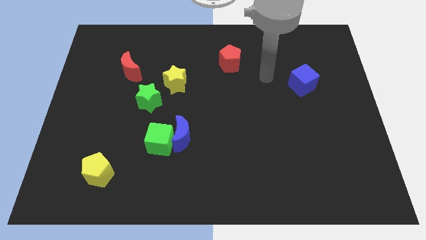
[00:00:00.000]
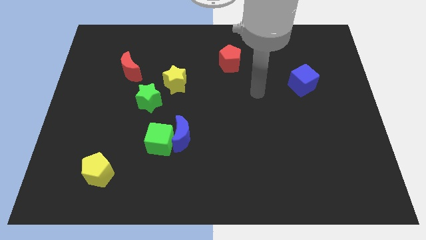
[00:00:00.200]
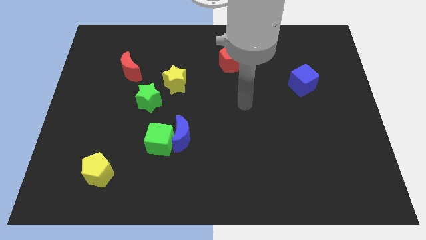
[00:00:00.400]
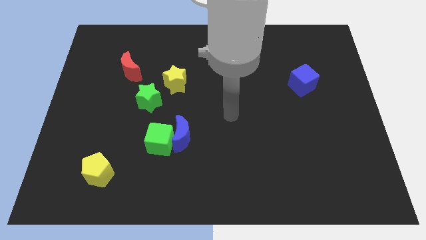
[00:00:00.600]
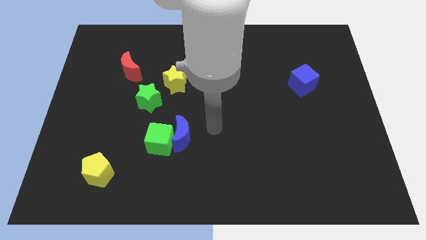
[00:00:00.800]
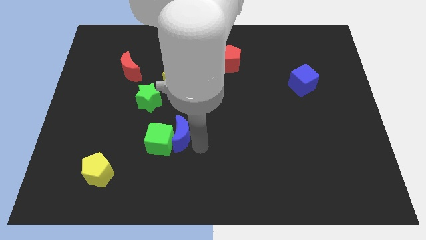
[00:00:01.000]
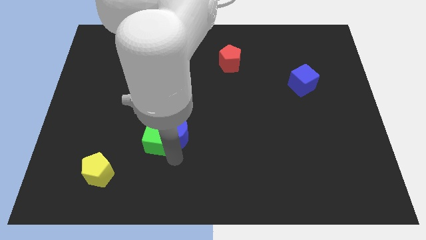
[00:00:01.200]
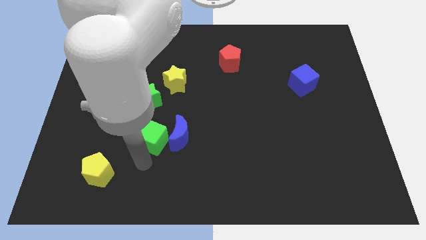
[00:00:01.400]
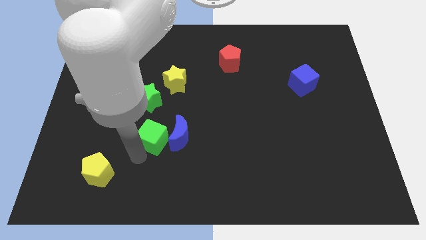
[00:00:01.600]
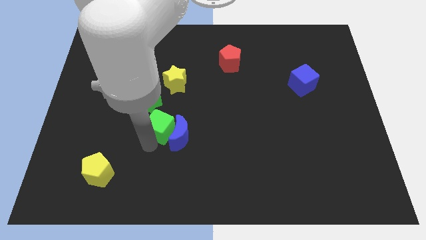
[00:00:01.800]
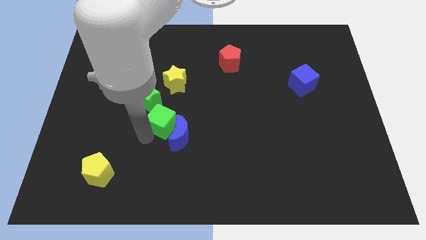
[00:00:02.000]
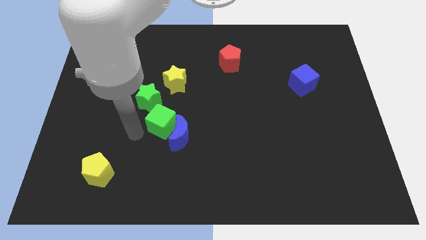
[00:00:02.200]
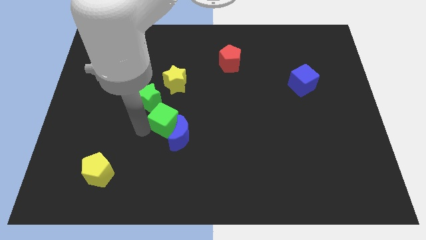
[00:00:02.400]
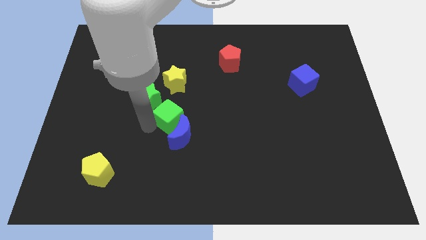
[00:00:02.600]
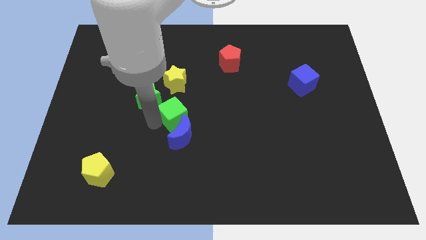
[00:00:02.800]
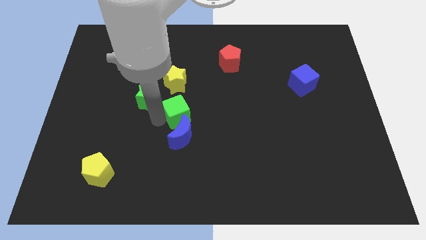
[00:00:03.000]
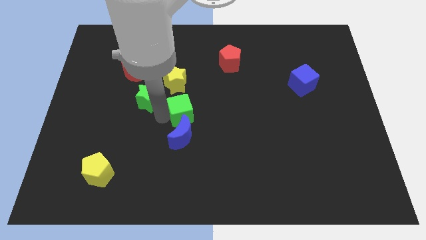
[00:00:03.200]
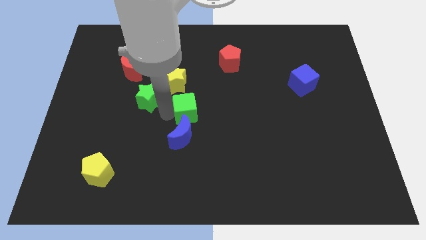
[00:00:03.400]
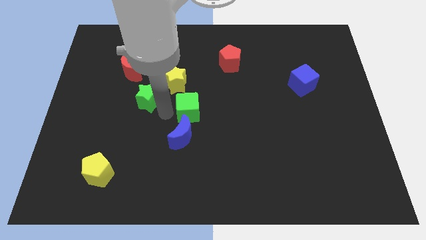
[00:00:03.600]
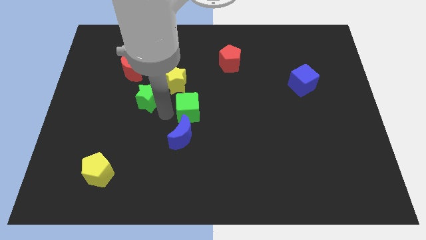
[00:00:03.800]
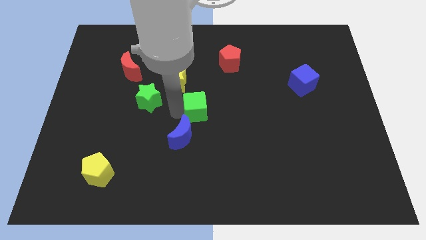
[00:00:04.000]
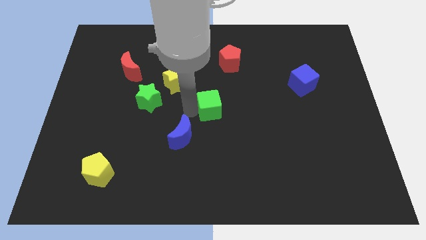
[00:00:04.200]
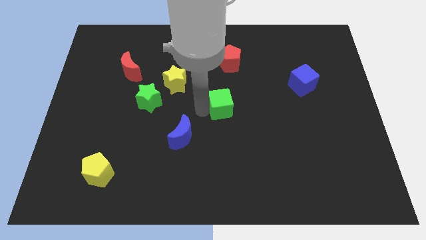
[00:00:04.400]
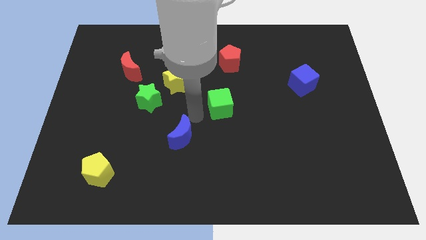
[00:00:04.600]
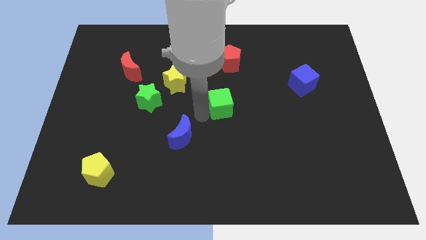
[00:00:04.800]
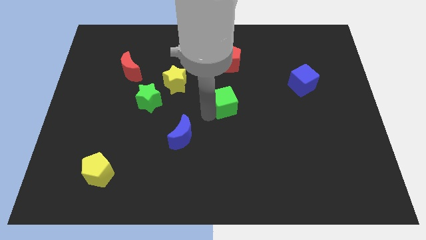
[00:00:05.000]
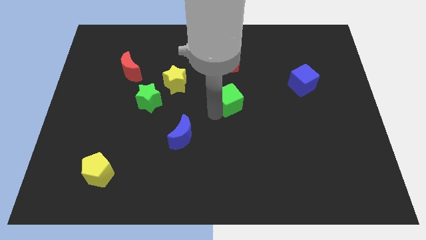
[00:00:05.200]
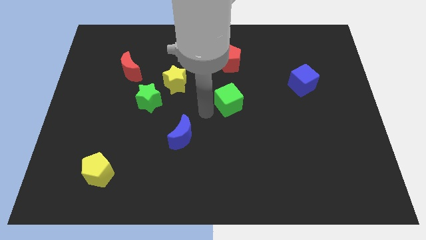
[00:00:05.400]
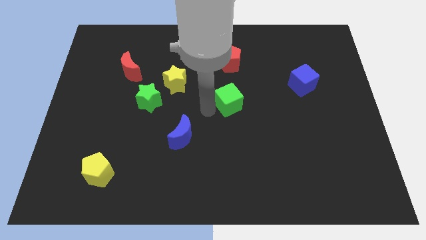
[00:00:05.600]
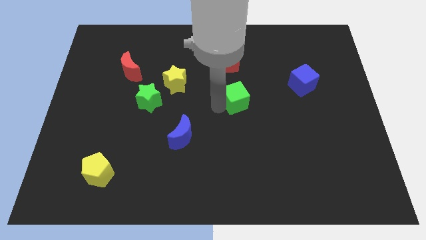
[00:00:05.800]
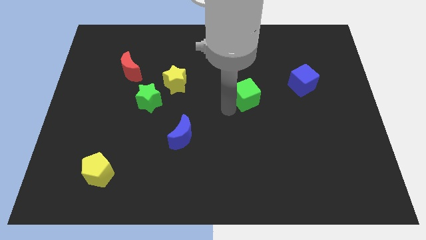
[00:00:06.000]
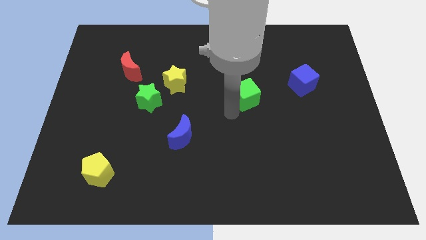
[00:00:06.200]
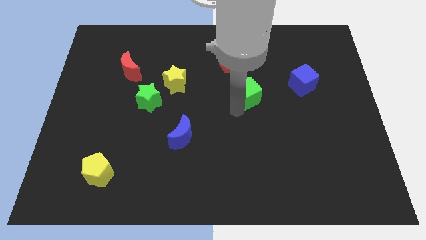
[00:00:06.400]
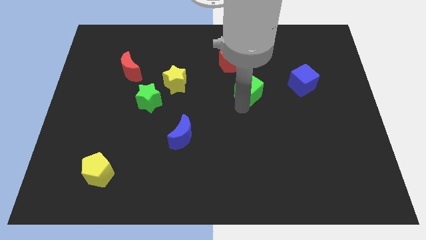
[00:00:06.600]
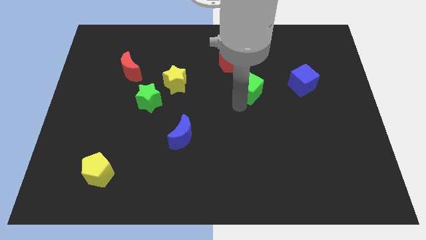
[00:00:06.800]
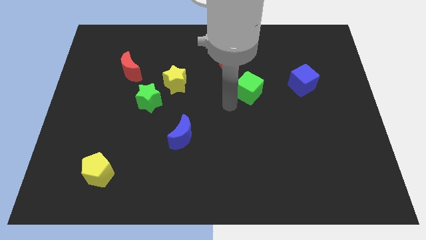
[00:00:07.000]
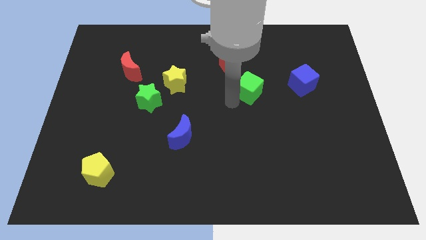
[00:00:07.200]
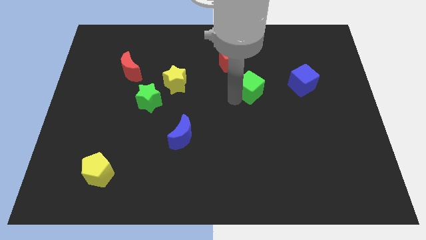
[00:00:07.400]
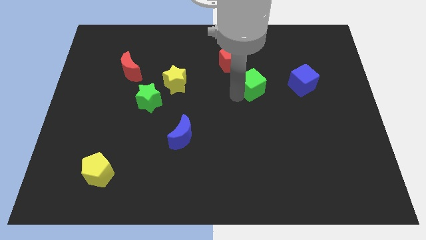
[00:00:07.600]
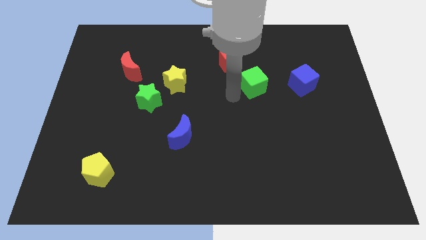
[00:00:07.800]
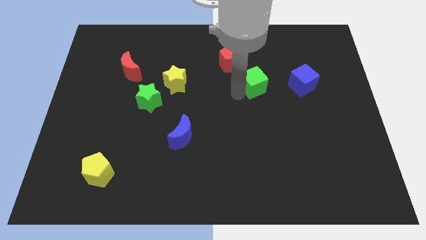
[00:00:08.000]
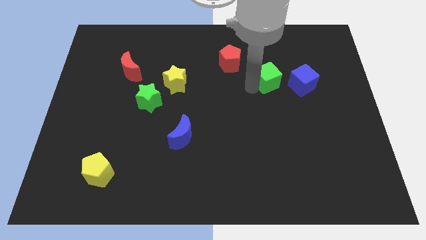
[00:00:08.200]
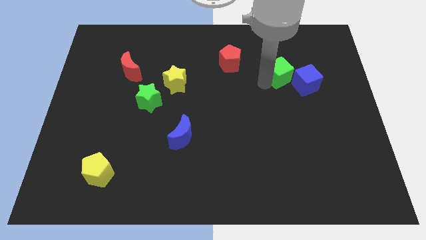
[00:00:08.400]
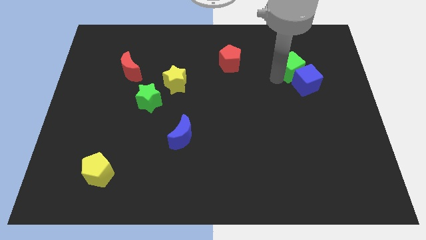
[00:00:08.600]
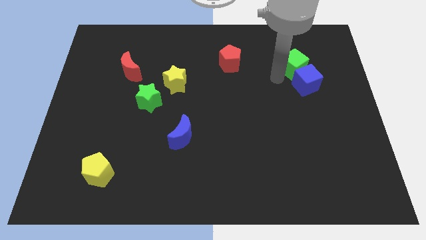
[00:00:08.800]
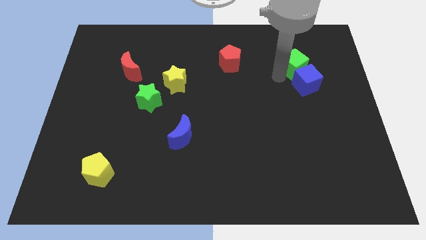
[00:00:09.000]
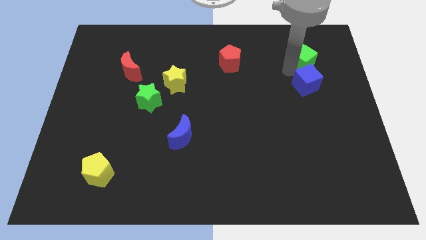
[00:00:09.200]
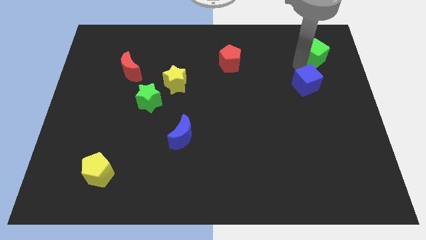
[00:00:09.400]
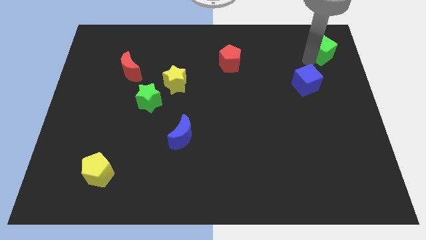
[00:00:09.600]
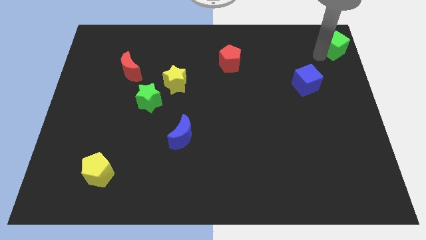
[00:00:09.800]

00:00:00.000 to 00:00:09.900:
put the green cube to the top right

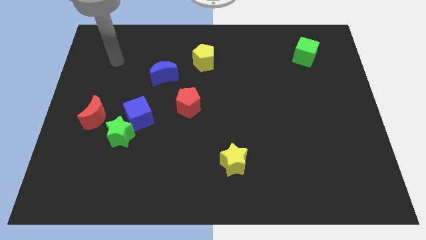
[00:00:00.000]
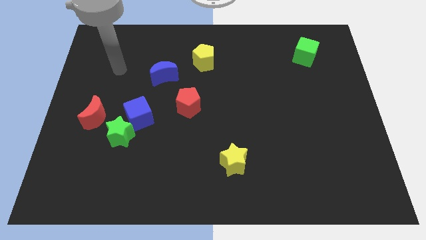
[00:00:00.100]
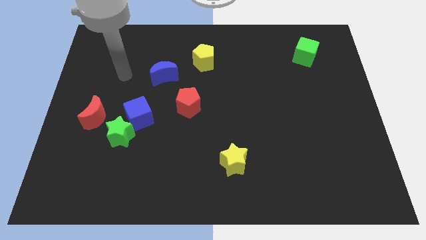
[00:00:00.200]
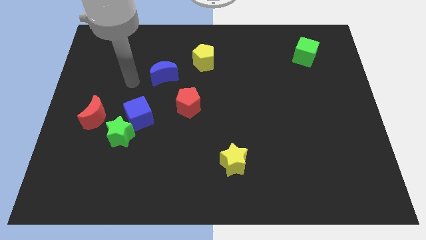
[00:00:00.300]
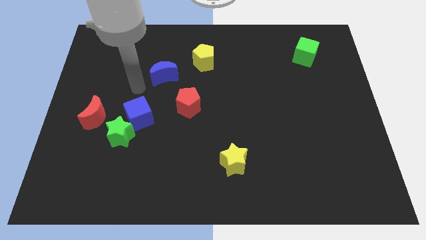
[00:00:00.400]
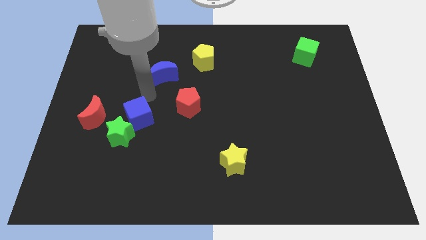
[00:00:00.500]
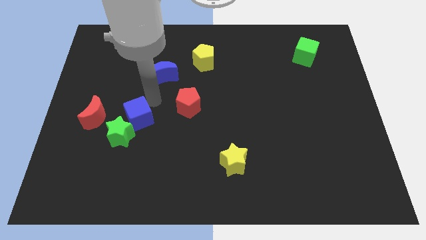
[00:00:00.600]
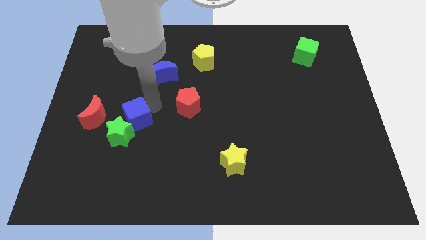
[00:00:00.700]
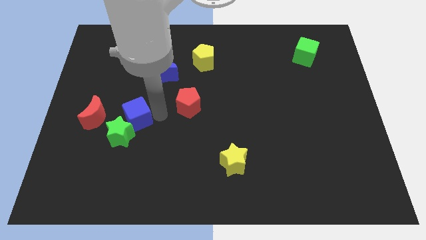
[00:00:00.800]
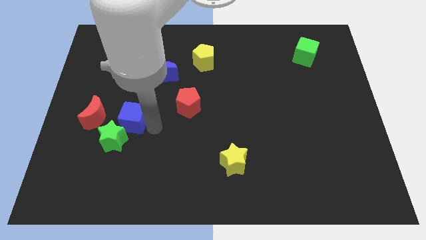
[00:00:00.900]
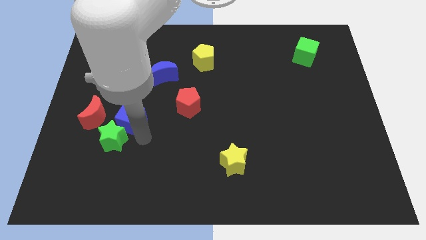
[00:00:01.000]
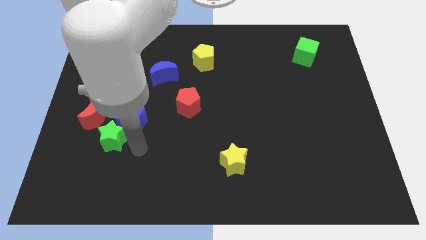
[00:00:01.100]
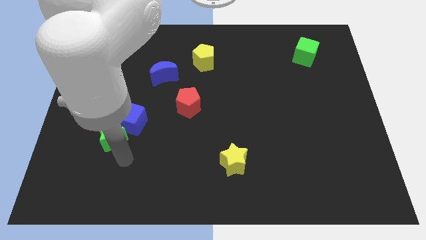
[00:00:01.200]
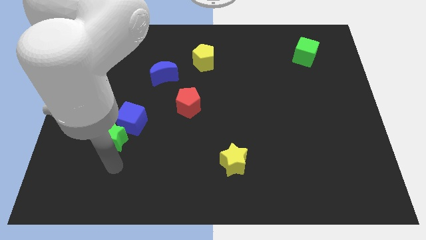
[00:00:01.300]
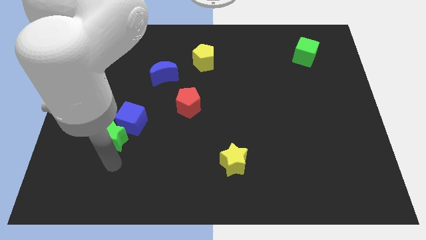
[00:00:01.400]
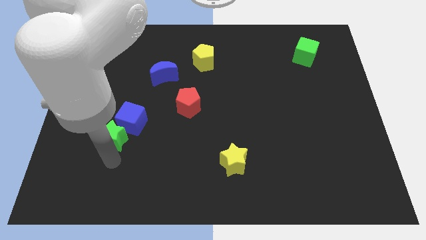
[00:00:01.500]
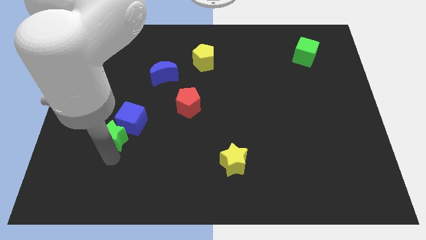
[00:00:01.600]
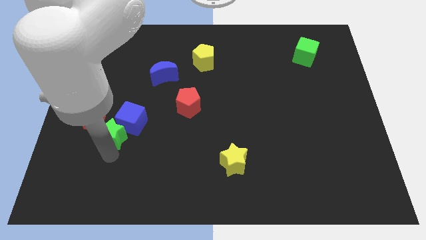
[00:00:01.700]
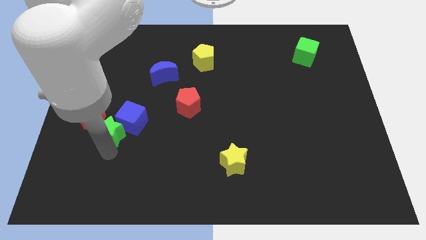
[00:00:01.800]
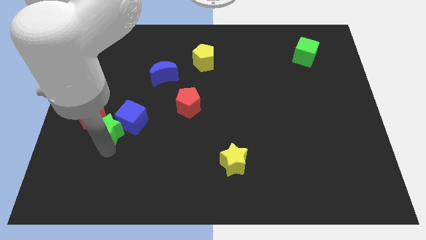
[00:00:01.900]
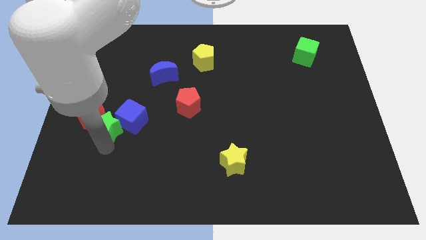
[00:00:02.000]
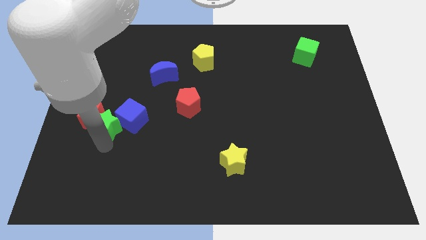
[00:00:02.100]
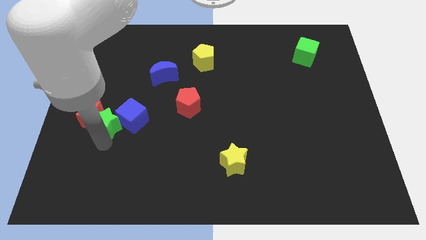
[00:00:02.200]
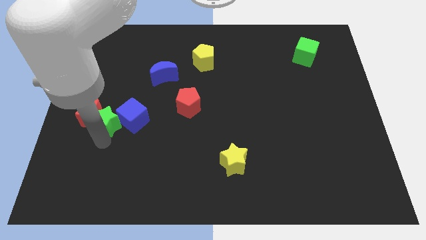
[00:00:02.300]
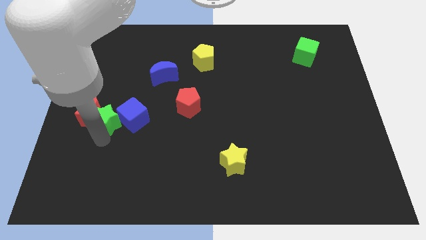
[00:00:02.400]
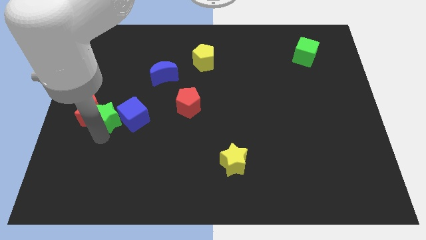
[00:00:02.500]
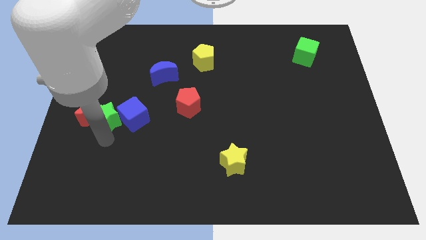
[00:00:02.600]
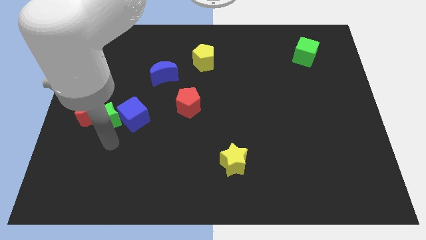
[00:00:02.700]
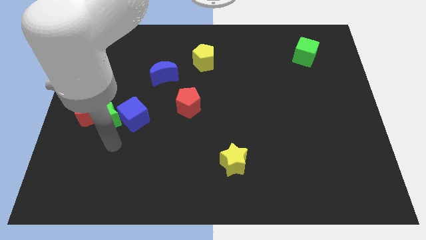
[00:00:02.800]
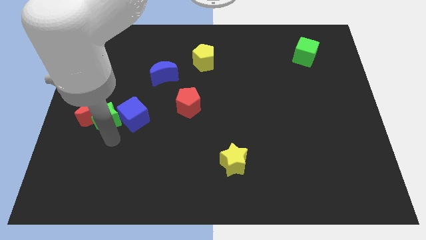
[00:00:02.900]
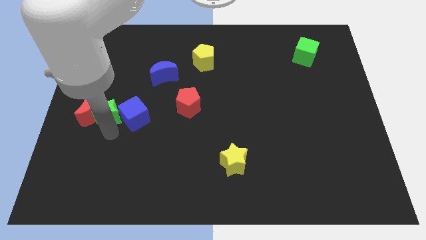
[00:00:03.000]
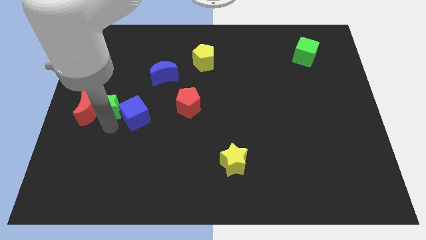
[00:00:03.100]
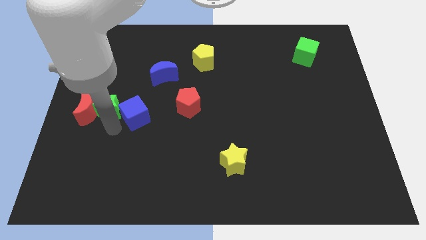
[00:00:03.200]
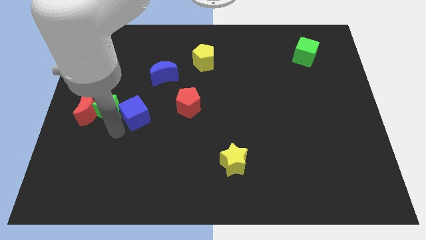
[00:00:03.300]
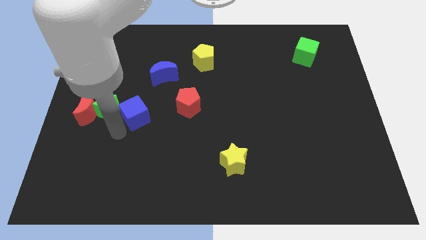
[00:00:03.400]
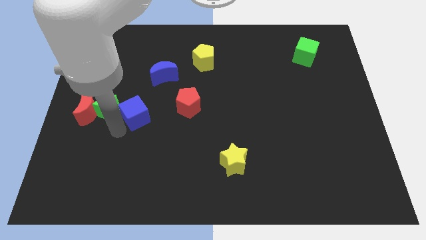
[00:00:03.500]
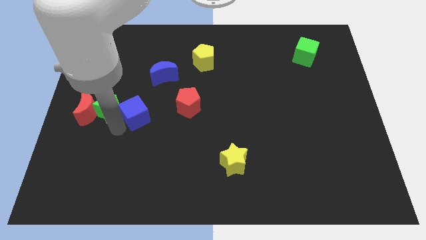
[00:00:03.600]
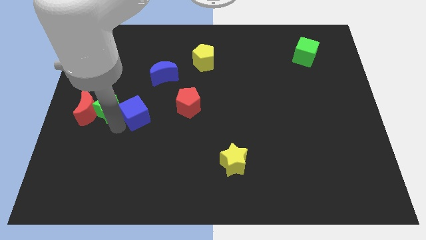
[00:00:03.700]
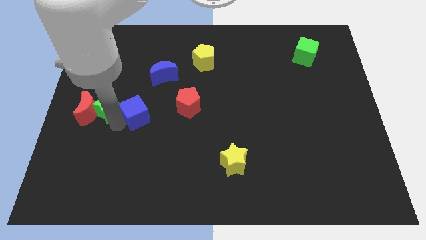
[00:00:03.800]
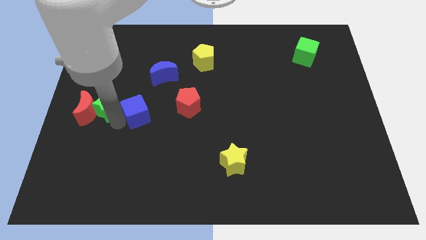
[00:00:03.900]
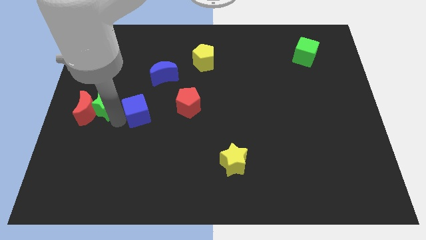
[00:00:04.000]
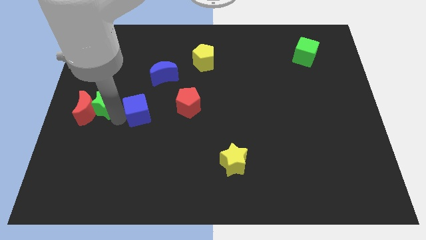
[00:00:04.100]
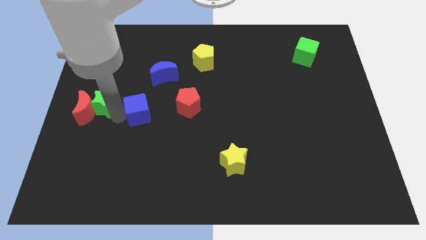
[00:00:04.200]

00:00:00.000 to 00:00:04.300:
slide the green star to the left side of the board
